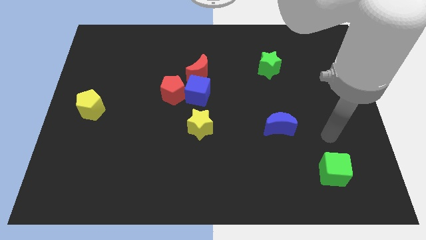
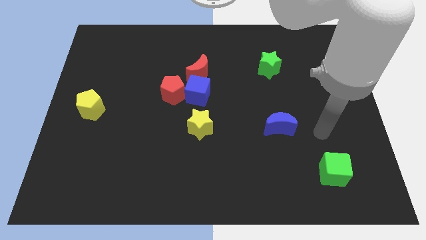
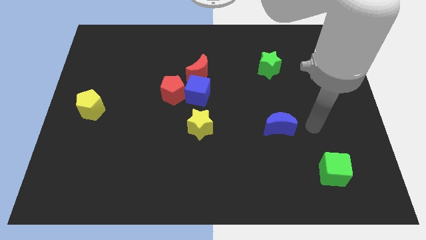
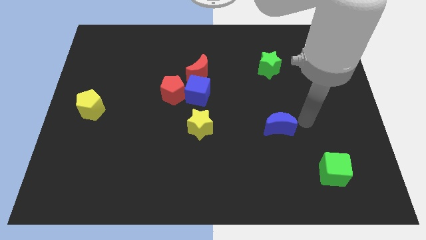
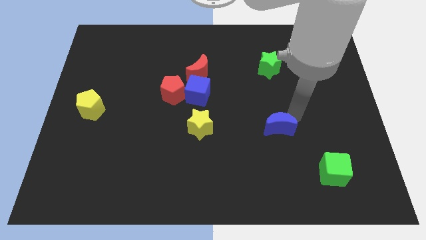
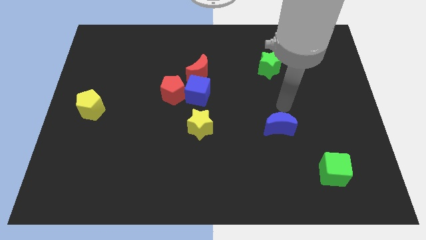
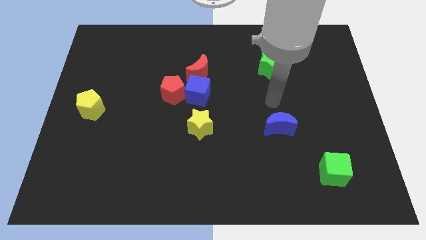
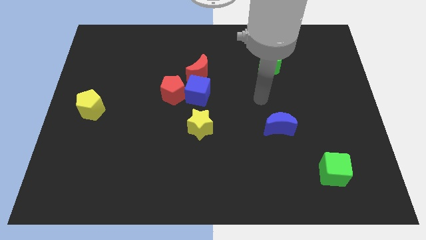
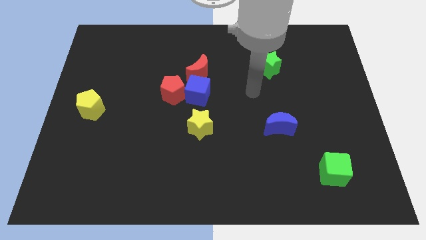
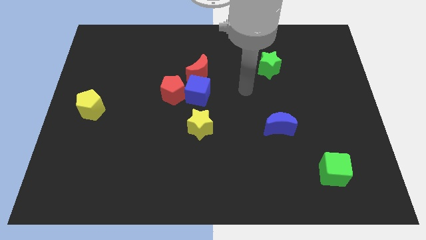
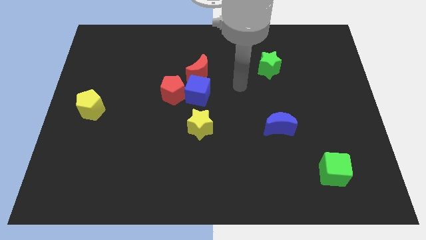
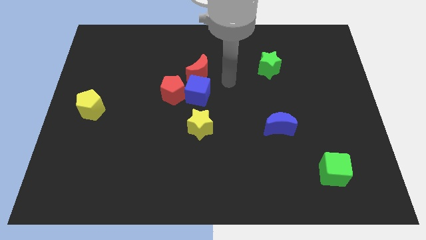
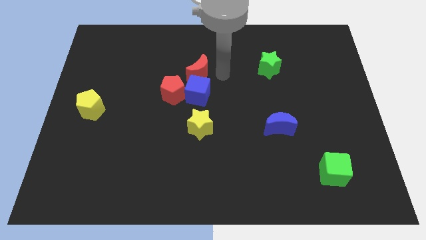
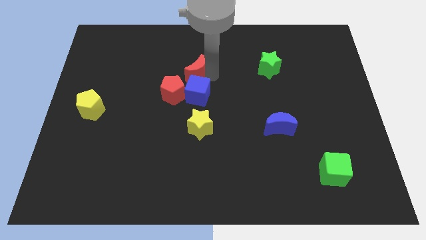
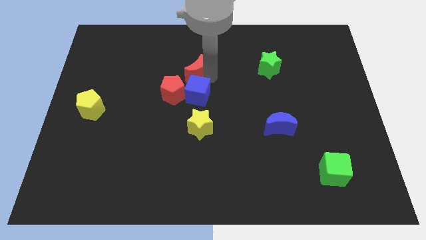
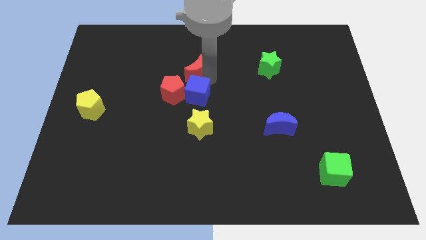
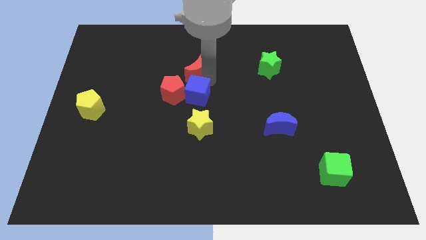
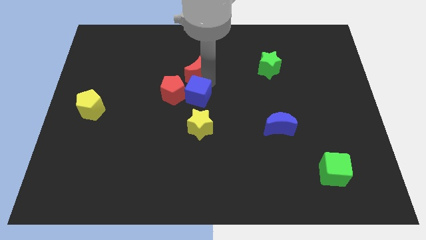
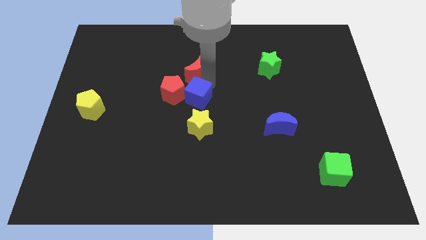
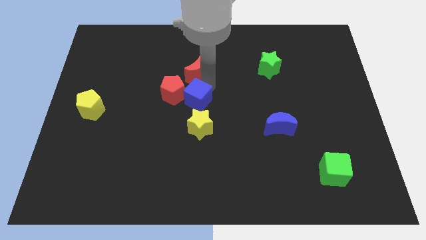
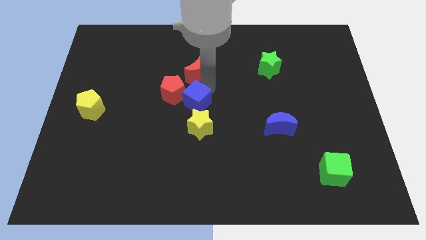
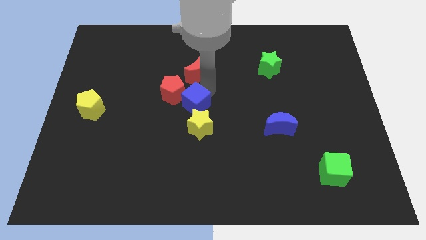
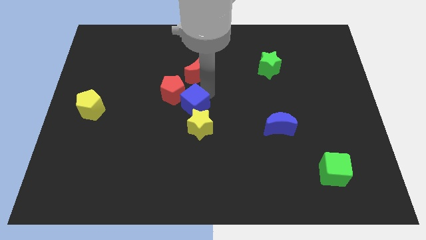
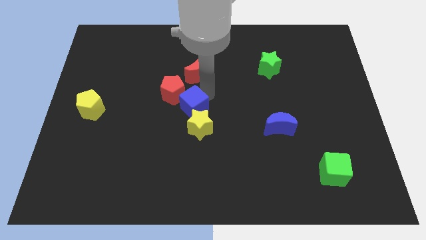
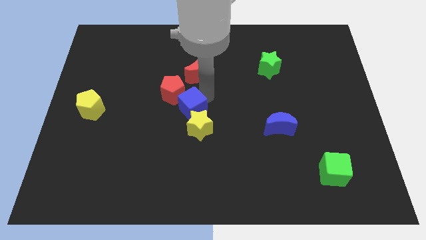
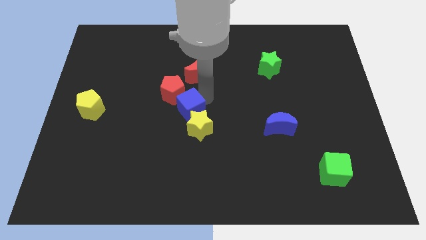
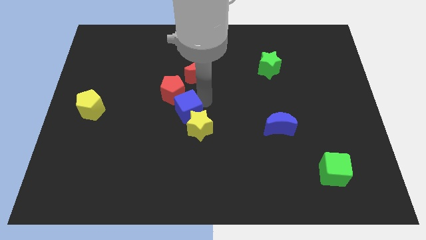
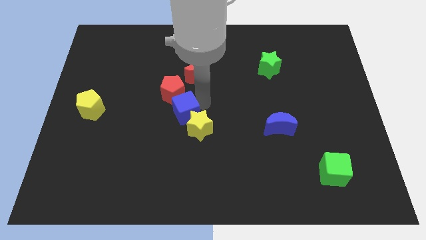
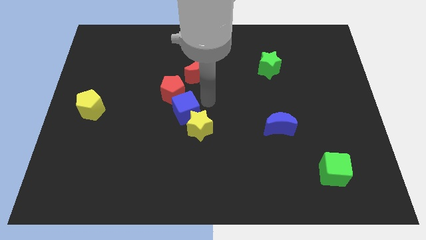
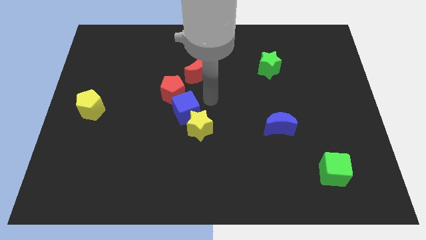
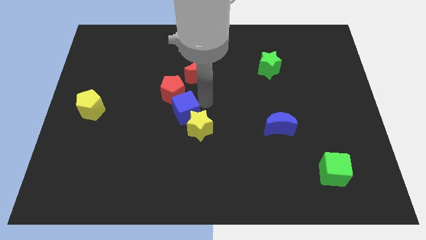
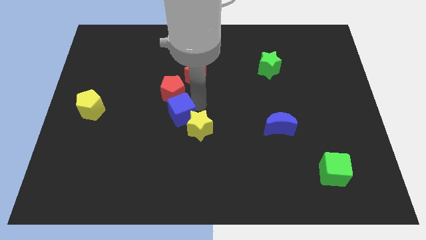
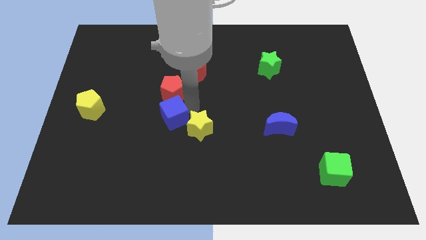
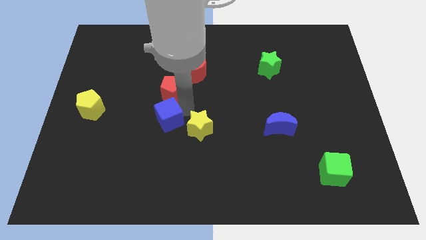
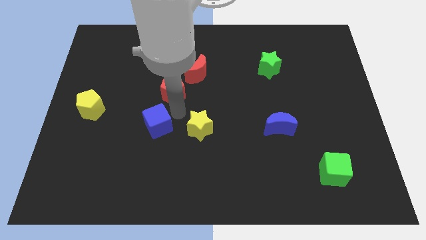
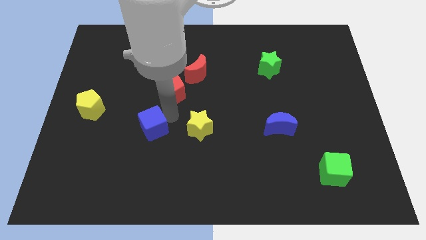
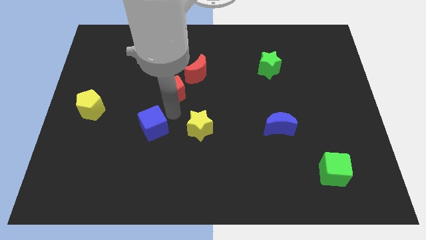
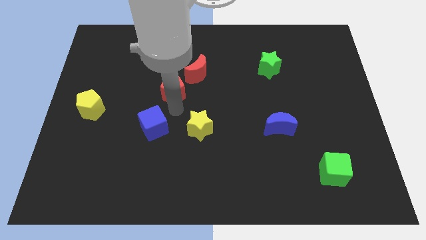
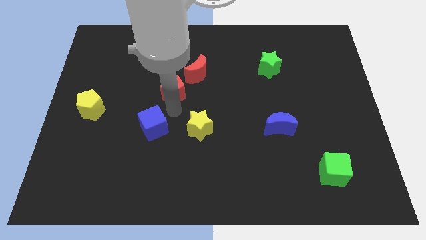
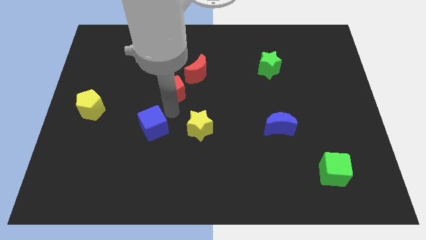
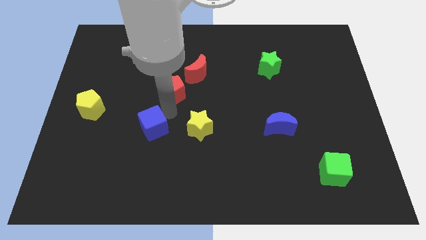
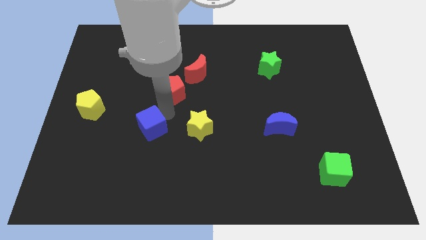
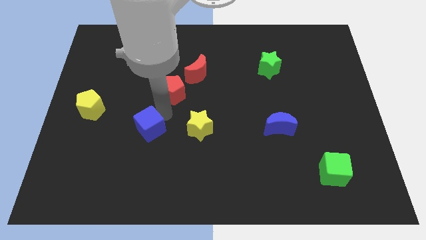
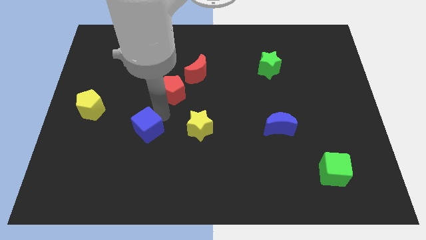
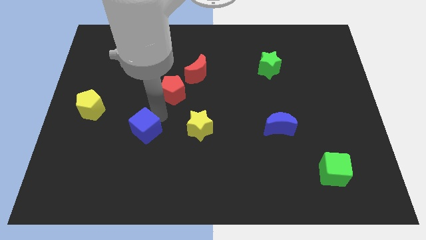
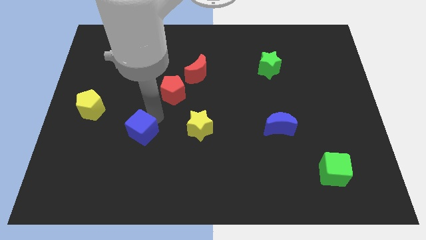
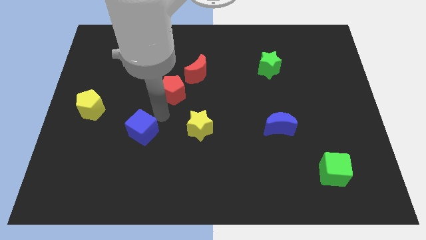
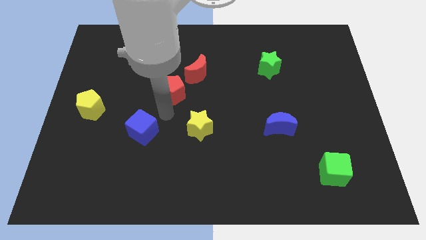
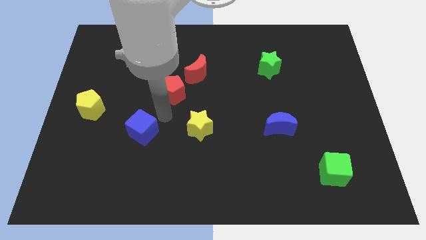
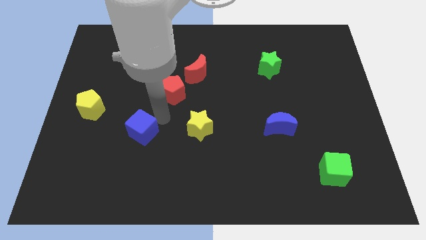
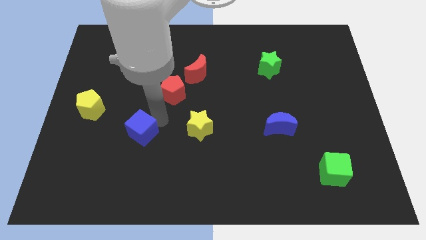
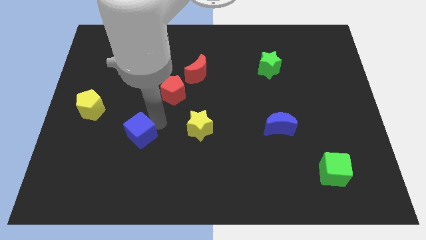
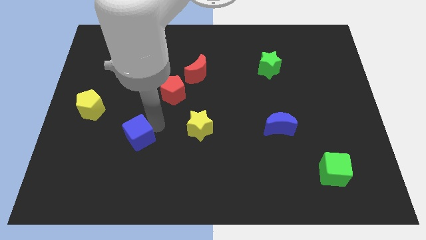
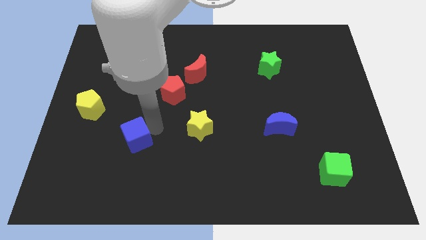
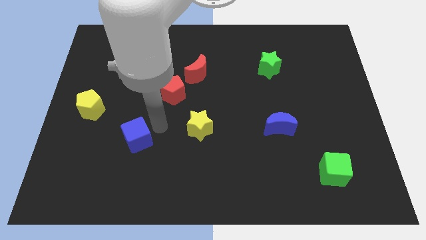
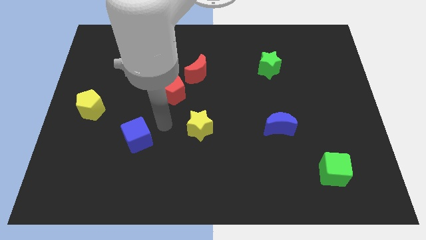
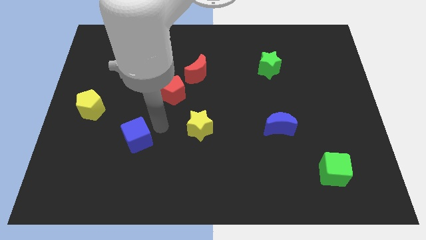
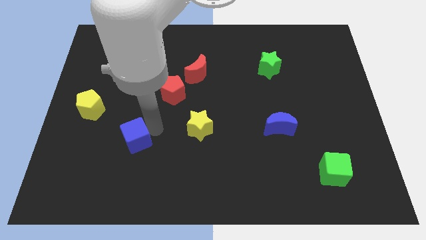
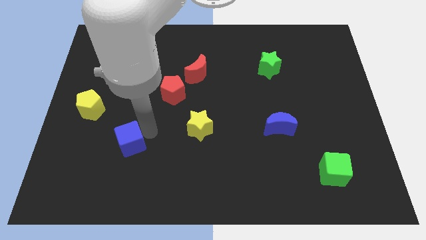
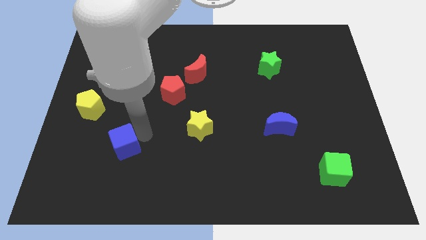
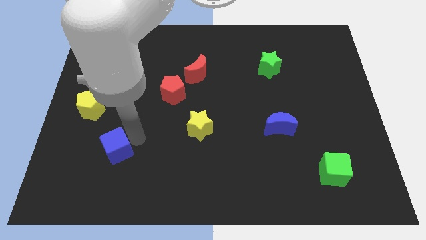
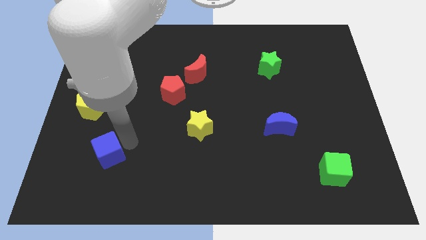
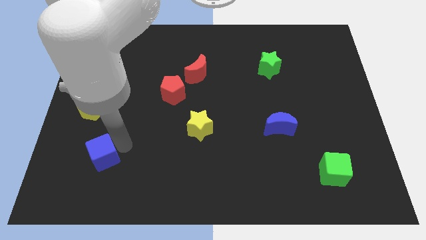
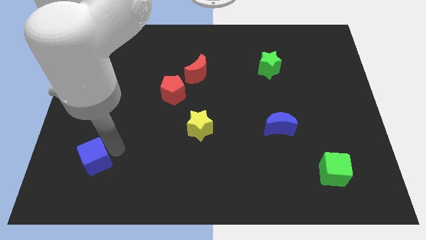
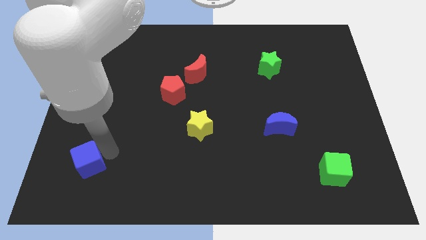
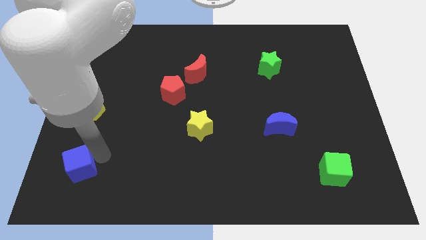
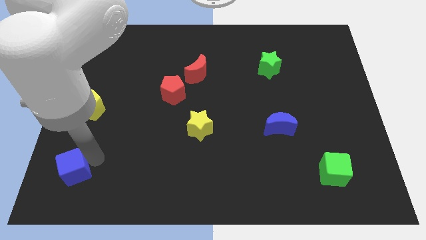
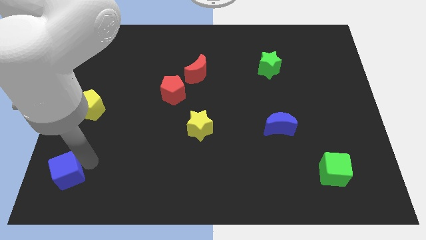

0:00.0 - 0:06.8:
move the blue cube to the bottom left of the board

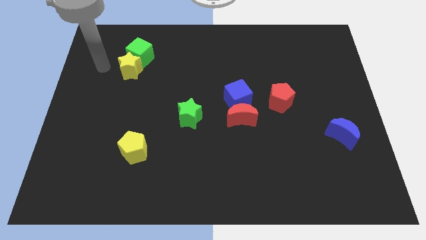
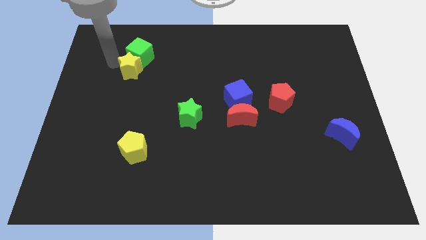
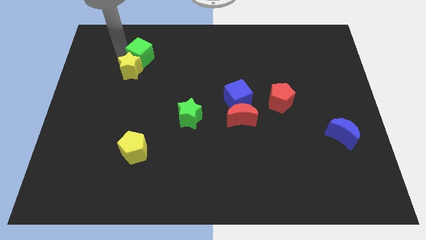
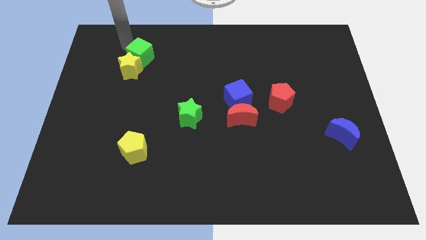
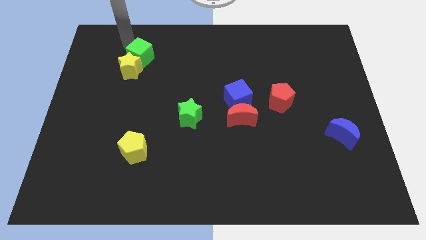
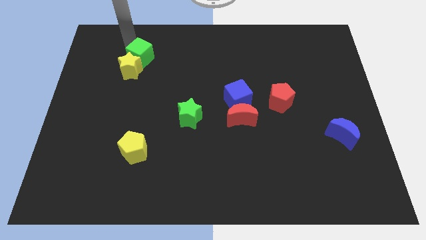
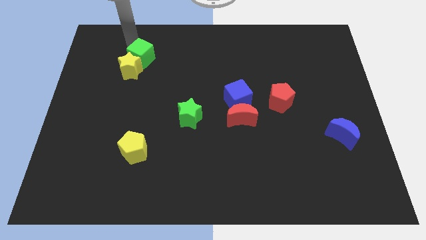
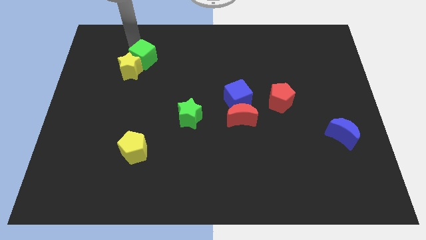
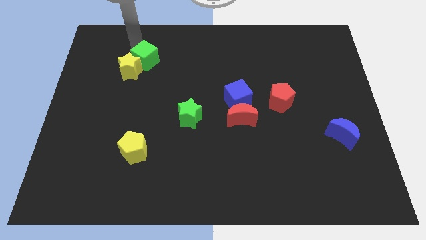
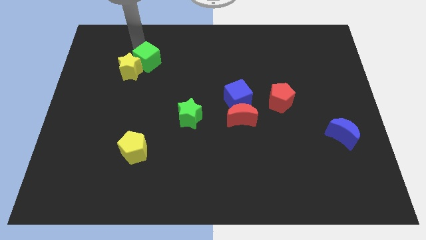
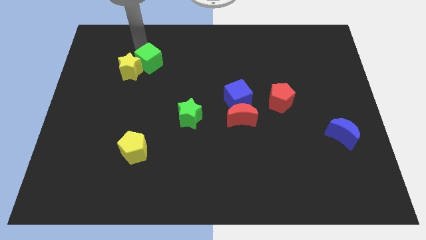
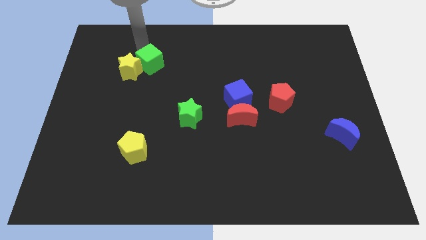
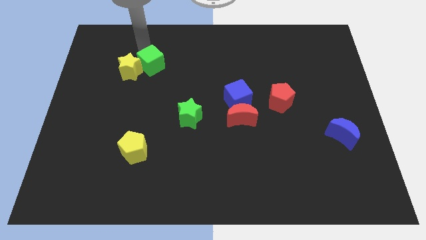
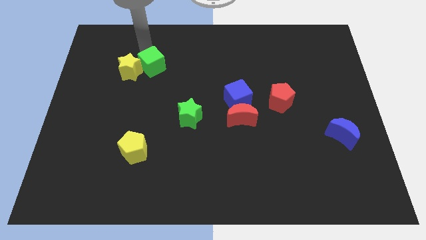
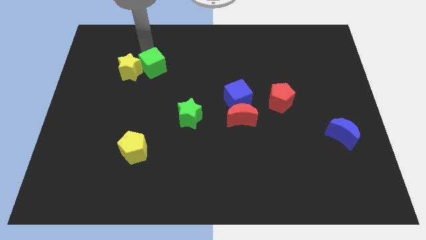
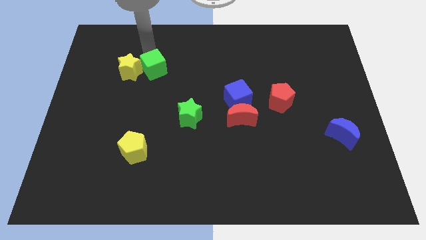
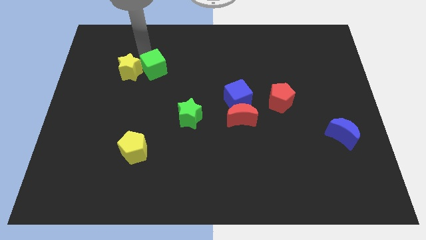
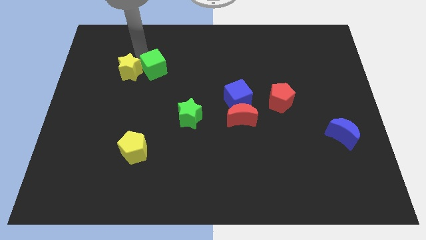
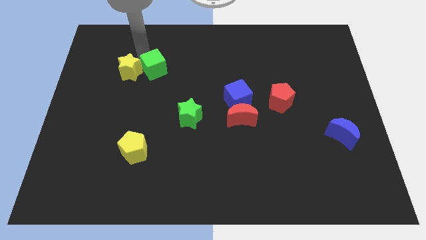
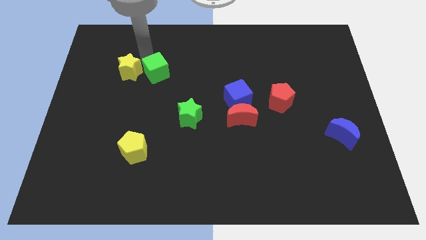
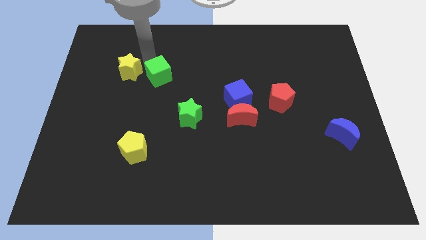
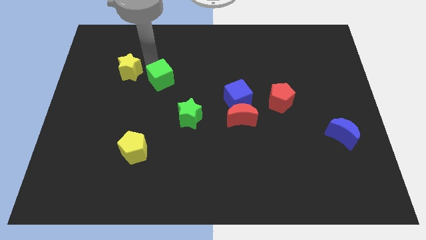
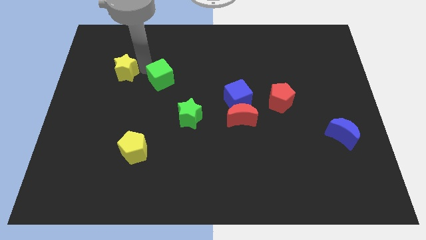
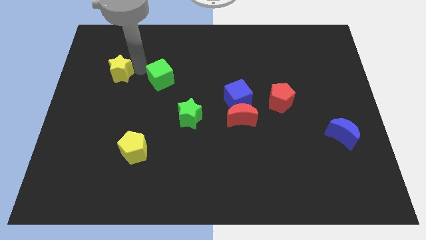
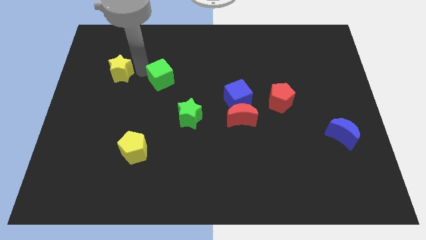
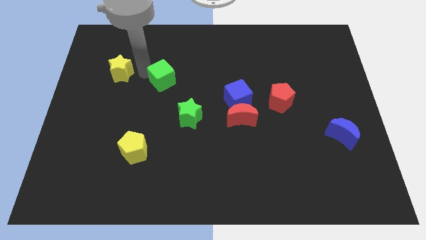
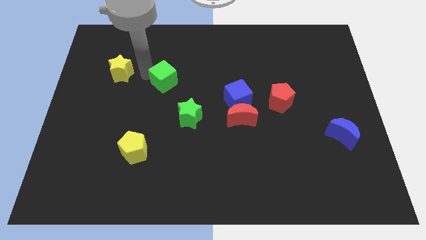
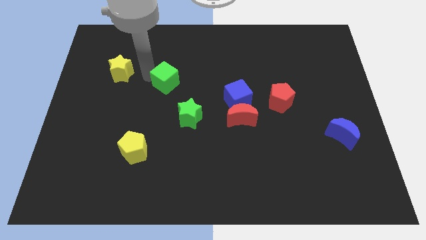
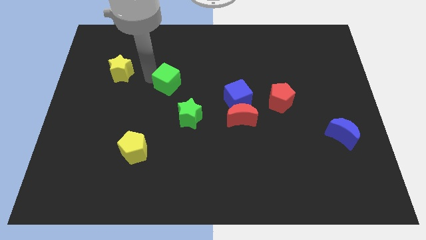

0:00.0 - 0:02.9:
slide the green cube to the center of the board
